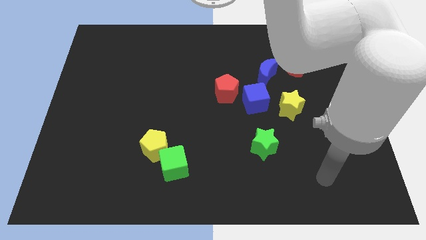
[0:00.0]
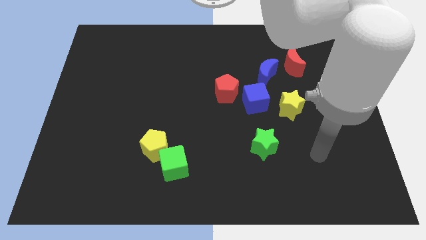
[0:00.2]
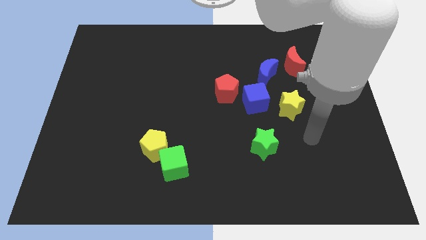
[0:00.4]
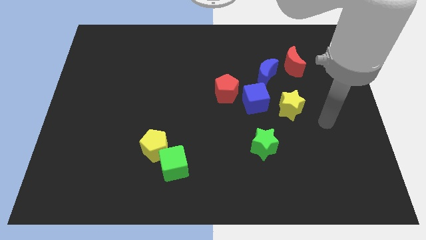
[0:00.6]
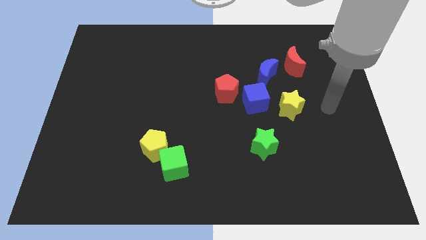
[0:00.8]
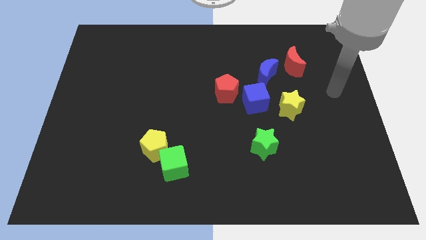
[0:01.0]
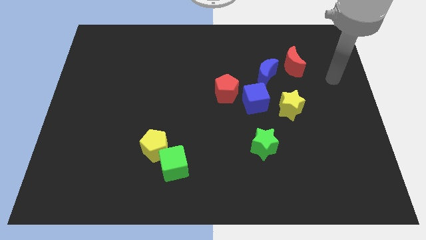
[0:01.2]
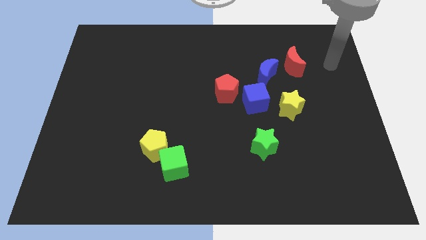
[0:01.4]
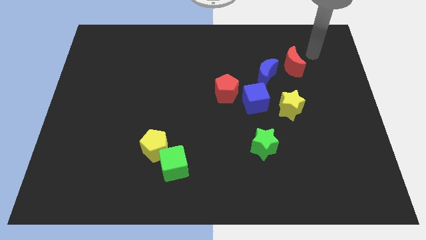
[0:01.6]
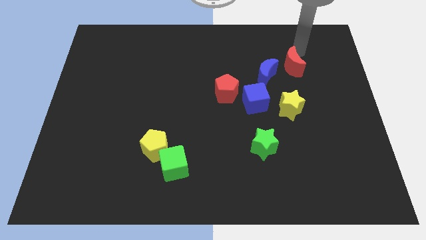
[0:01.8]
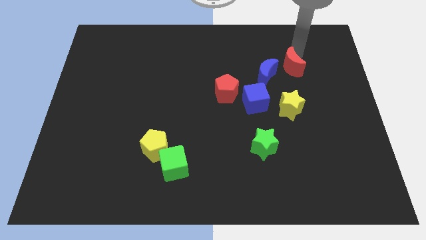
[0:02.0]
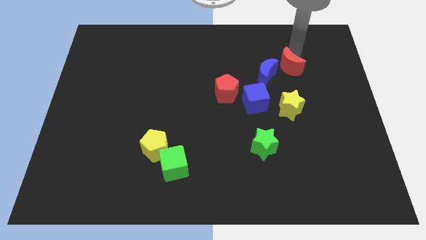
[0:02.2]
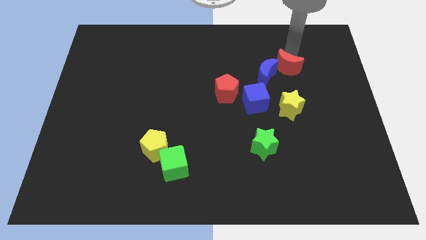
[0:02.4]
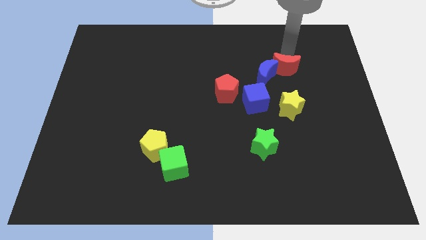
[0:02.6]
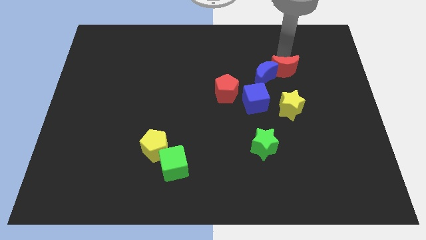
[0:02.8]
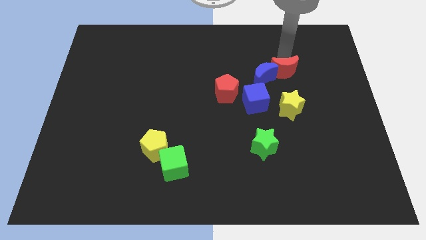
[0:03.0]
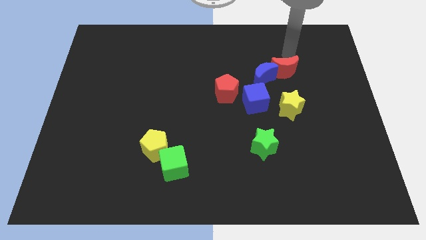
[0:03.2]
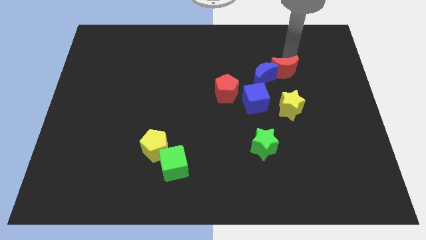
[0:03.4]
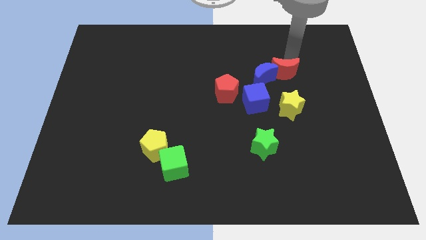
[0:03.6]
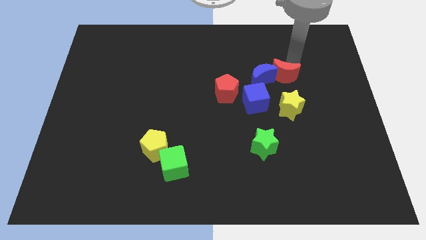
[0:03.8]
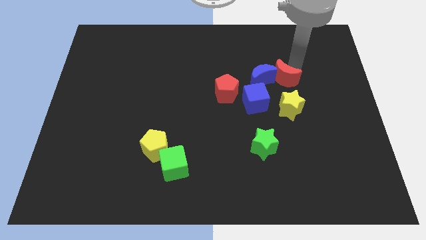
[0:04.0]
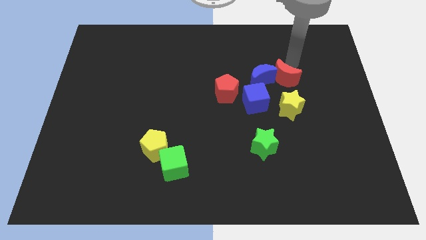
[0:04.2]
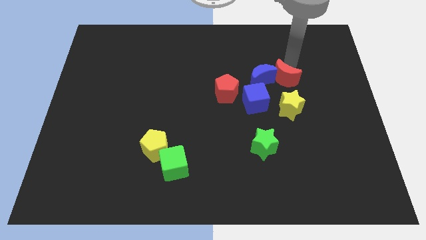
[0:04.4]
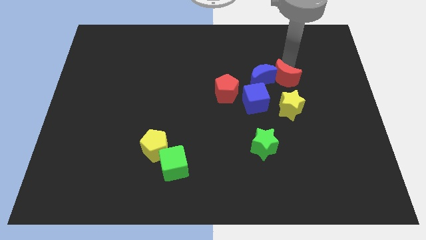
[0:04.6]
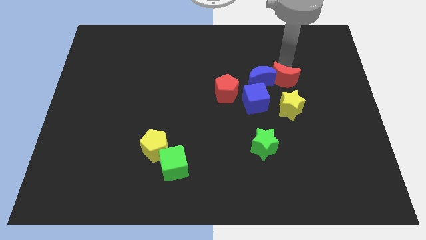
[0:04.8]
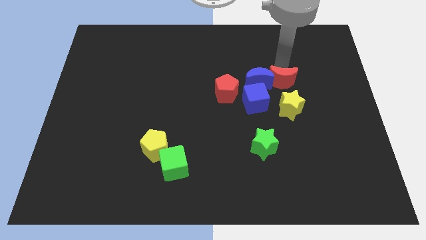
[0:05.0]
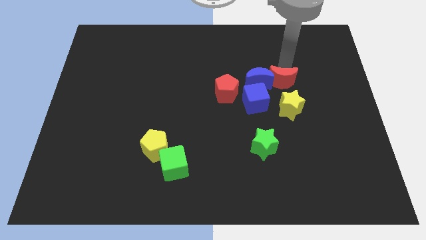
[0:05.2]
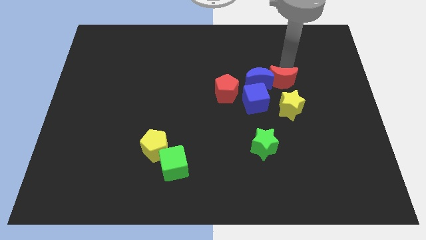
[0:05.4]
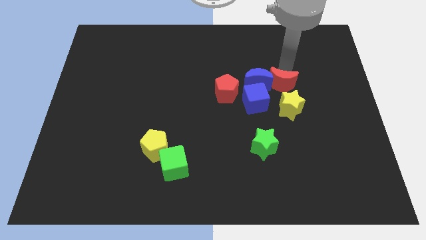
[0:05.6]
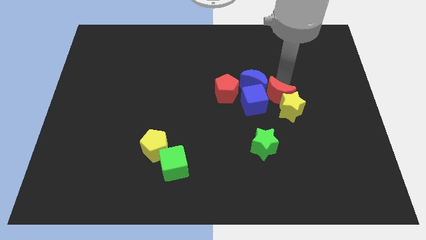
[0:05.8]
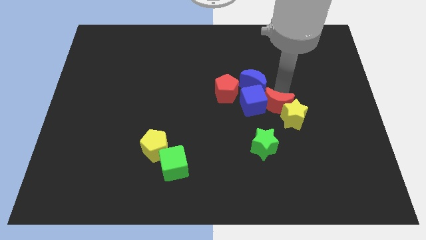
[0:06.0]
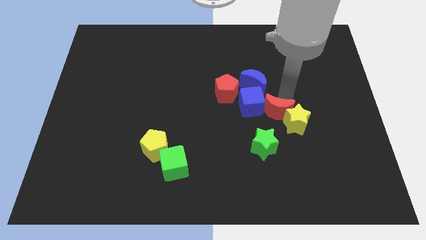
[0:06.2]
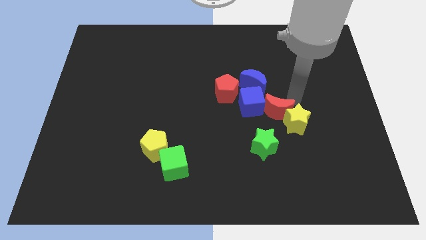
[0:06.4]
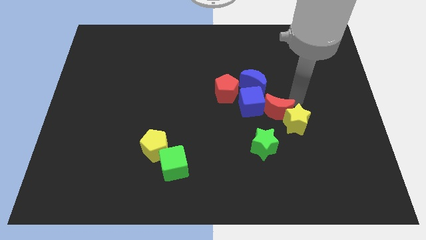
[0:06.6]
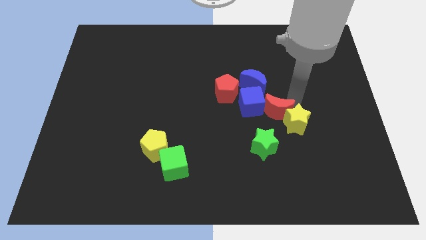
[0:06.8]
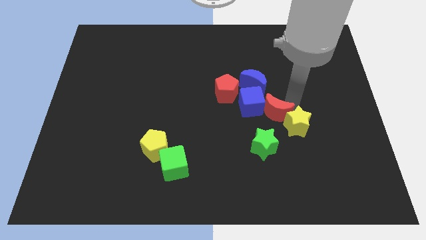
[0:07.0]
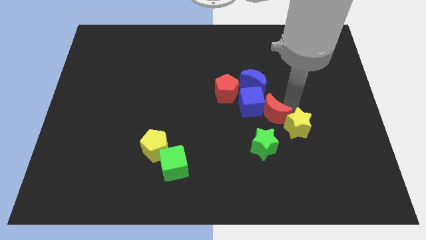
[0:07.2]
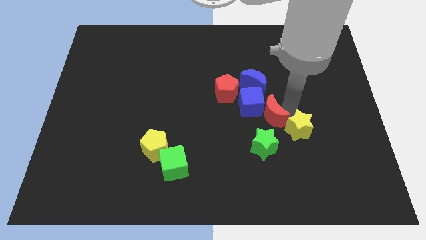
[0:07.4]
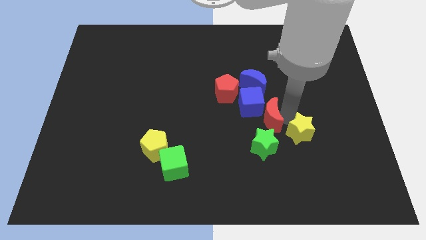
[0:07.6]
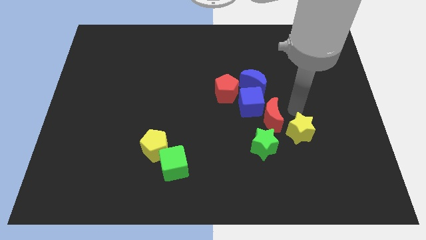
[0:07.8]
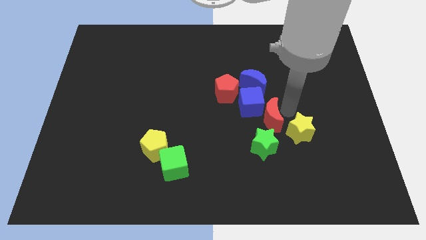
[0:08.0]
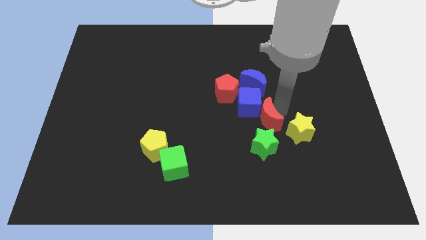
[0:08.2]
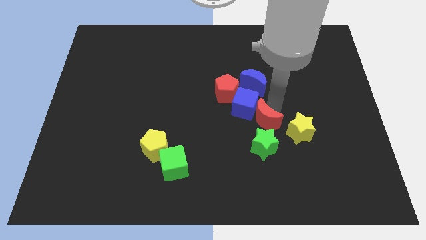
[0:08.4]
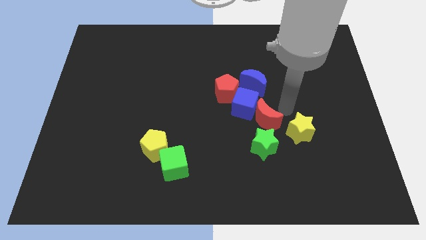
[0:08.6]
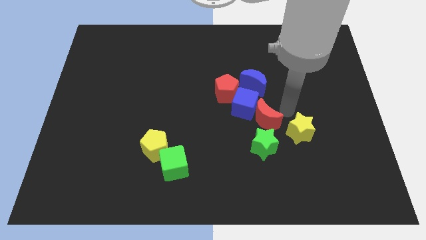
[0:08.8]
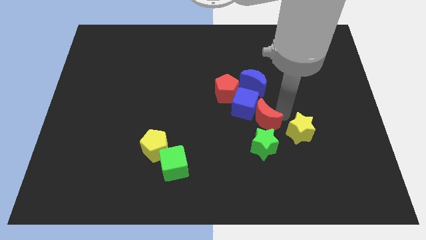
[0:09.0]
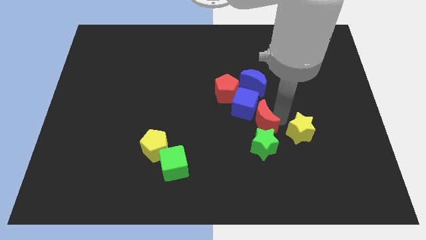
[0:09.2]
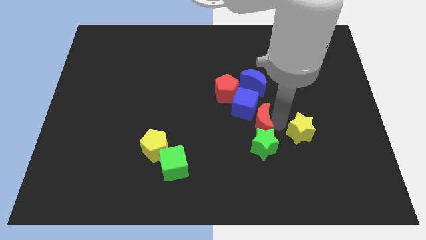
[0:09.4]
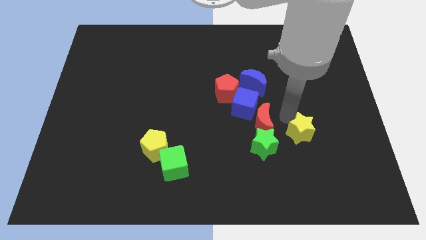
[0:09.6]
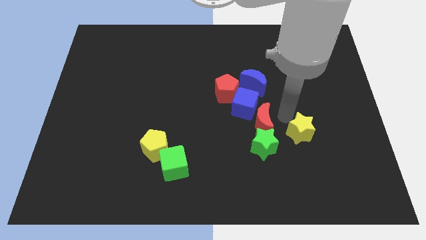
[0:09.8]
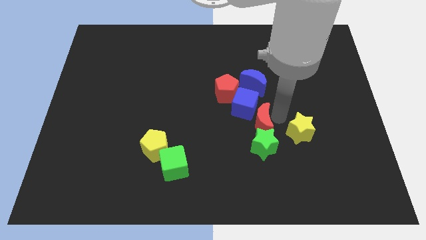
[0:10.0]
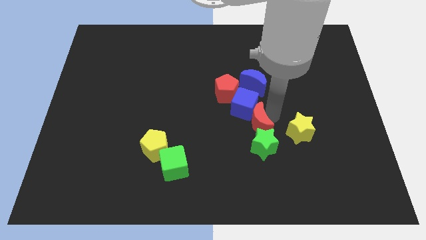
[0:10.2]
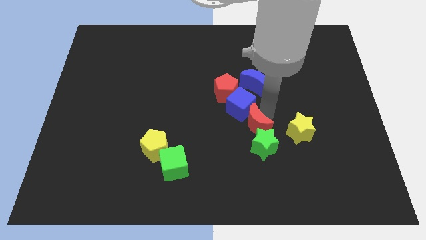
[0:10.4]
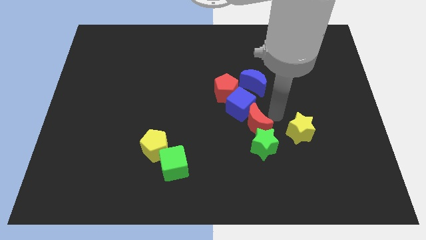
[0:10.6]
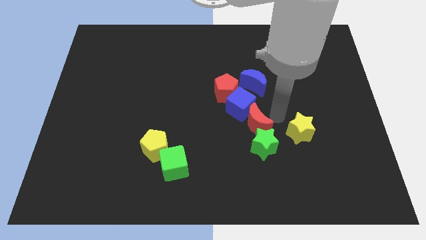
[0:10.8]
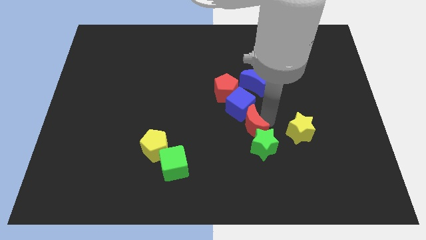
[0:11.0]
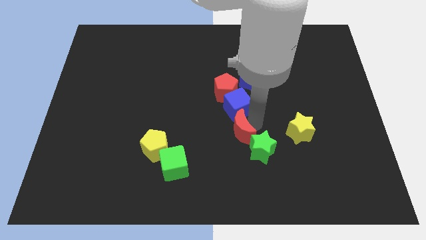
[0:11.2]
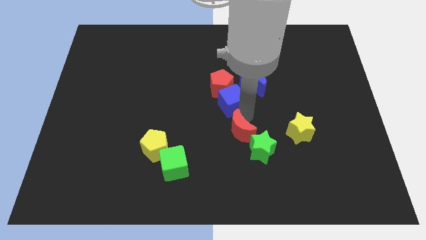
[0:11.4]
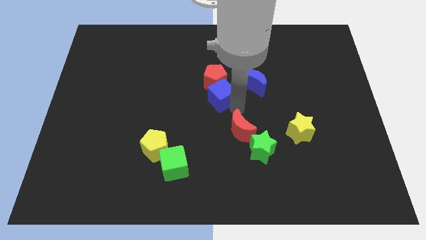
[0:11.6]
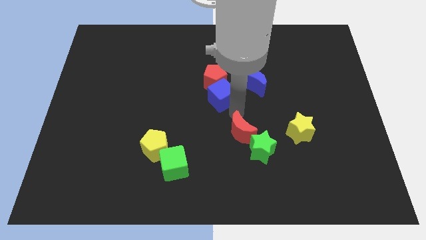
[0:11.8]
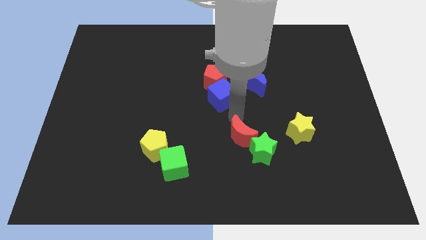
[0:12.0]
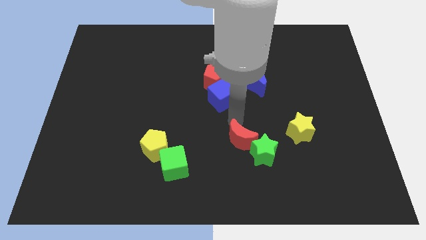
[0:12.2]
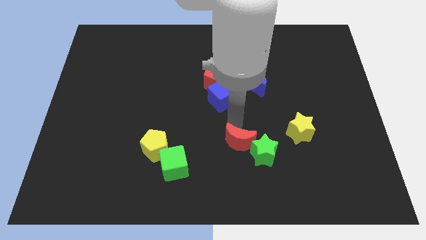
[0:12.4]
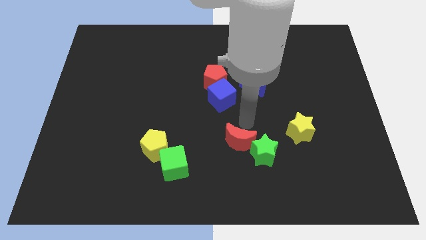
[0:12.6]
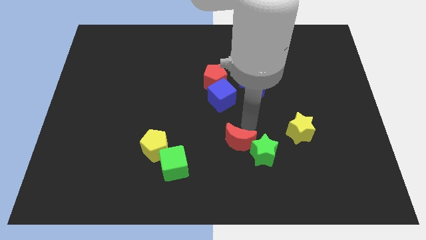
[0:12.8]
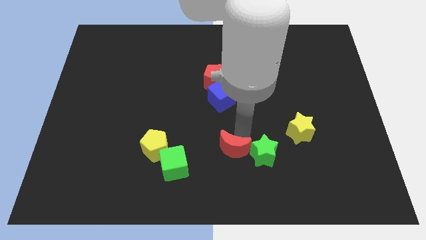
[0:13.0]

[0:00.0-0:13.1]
move the red moon right of the green cube
